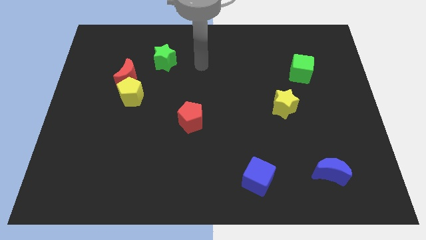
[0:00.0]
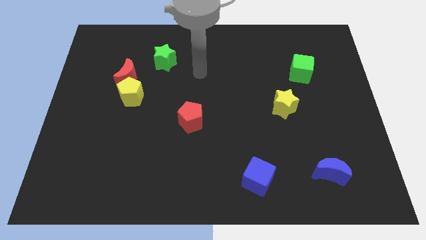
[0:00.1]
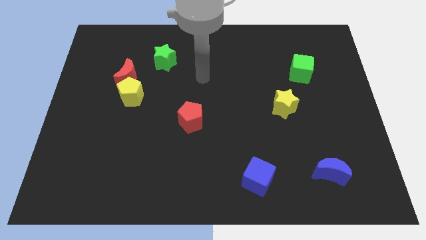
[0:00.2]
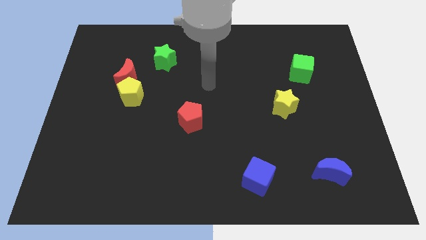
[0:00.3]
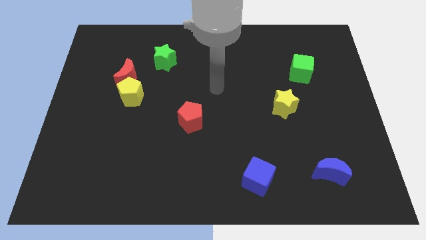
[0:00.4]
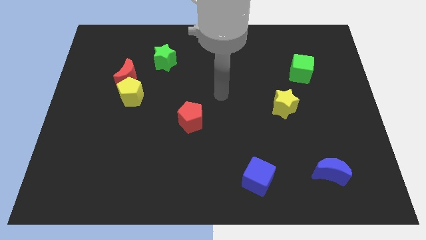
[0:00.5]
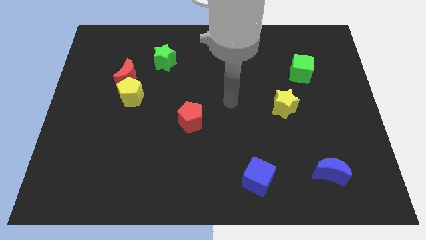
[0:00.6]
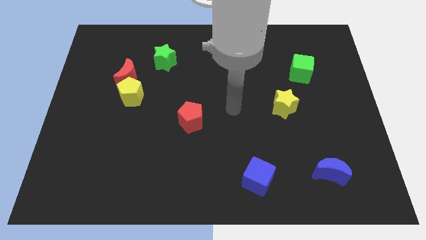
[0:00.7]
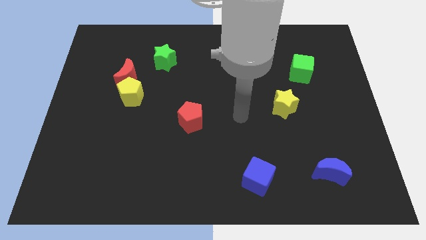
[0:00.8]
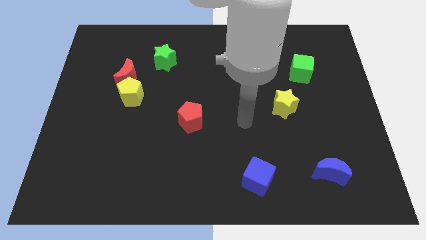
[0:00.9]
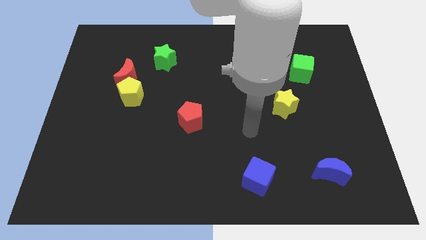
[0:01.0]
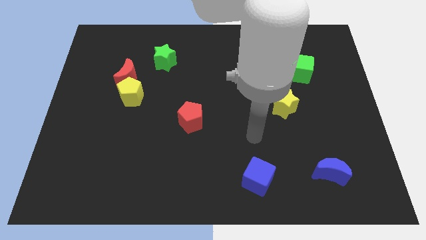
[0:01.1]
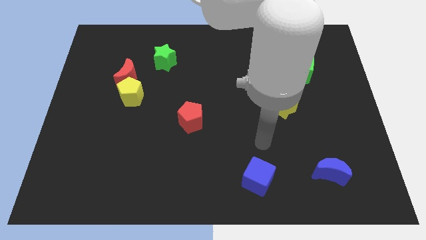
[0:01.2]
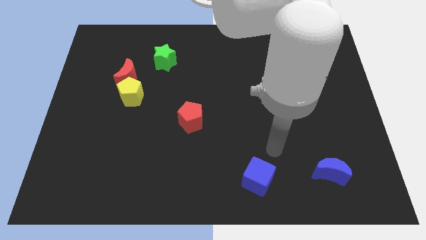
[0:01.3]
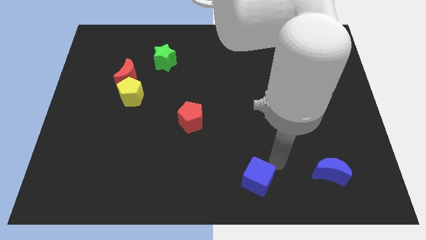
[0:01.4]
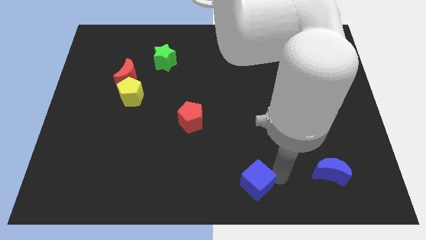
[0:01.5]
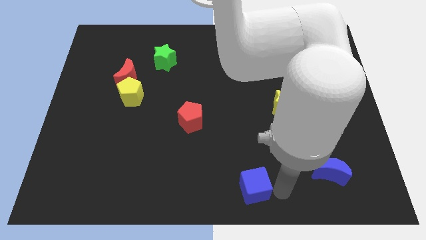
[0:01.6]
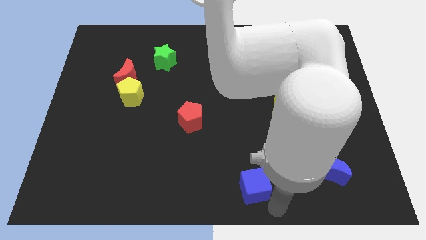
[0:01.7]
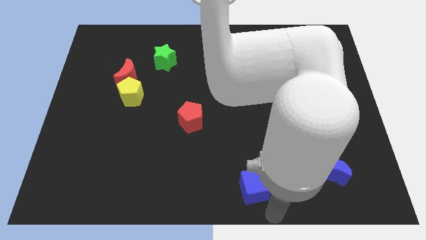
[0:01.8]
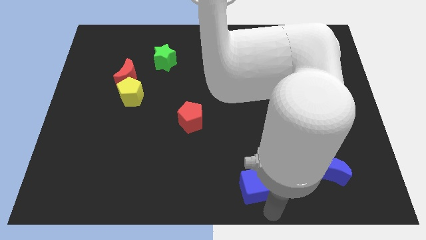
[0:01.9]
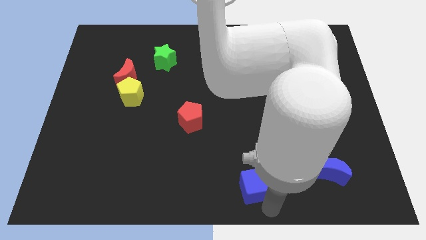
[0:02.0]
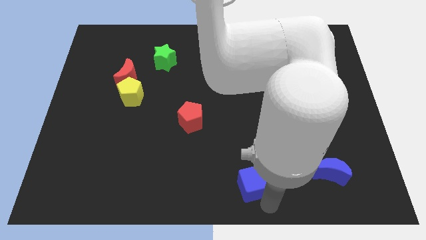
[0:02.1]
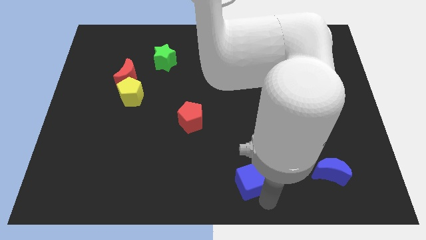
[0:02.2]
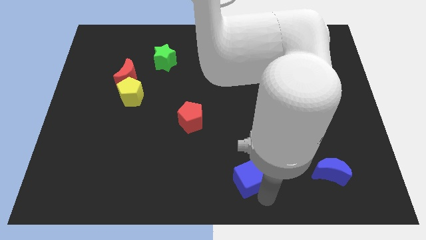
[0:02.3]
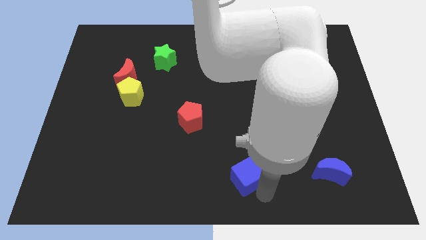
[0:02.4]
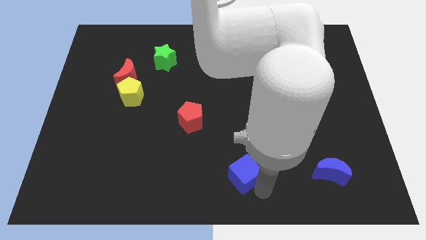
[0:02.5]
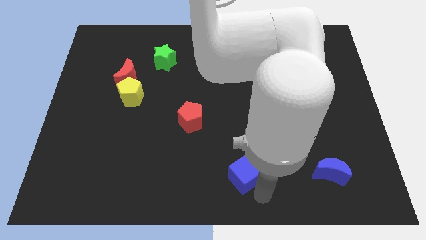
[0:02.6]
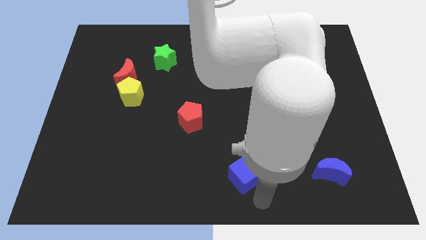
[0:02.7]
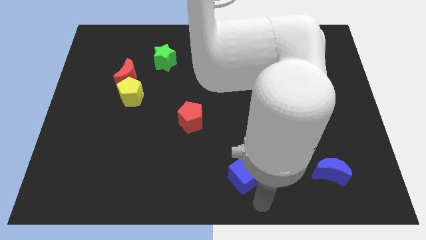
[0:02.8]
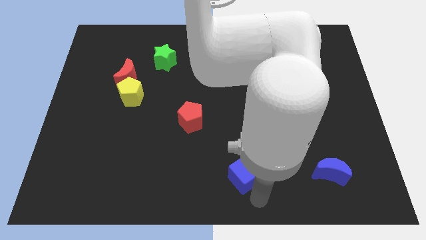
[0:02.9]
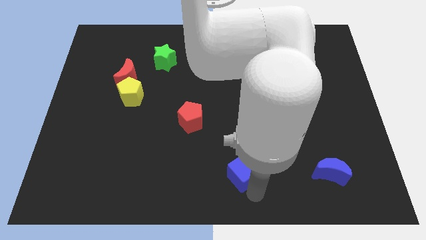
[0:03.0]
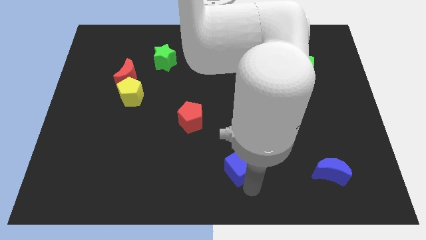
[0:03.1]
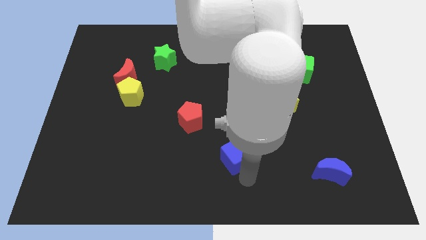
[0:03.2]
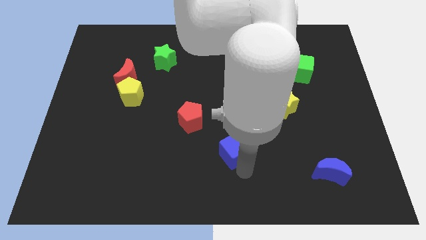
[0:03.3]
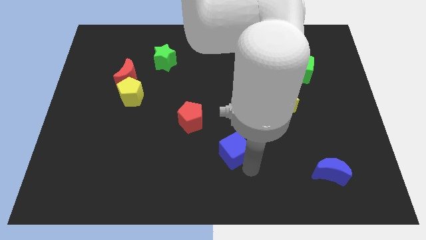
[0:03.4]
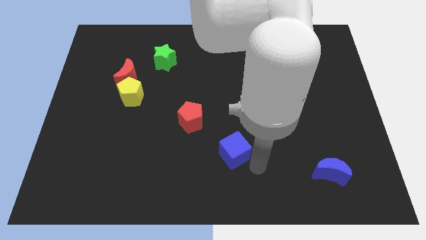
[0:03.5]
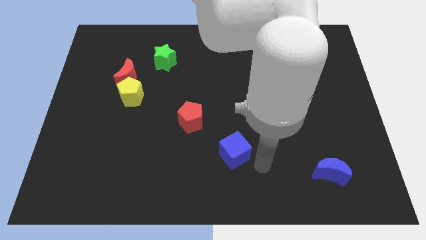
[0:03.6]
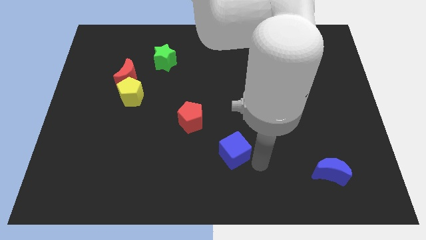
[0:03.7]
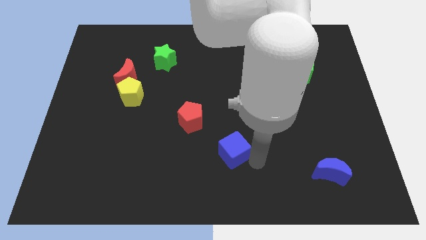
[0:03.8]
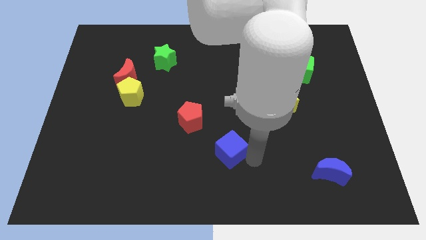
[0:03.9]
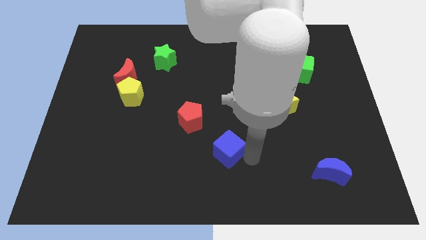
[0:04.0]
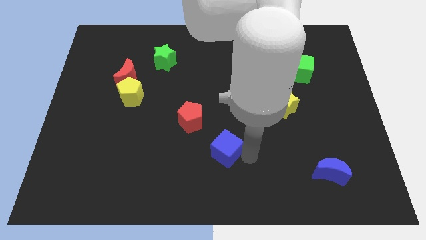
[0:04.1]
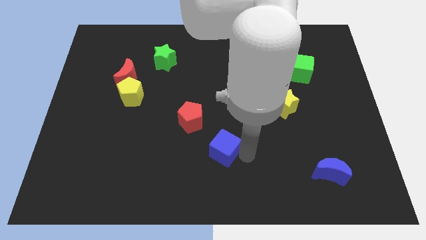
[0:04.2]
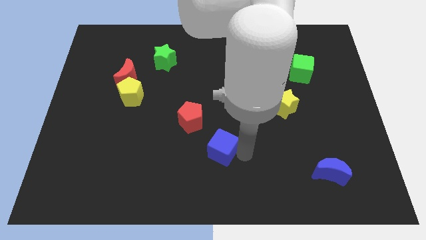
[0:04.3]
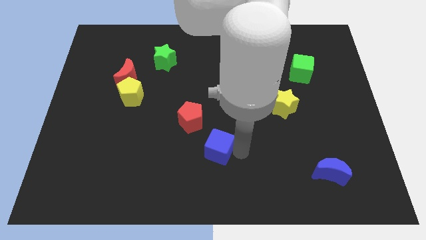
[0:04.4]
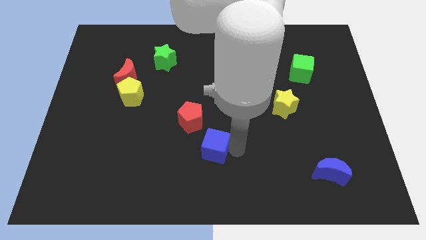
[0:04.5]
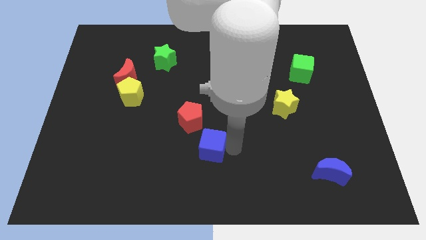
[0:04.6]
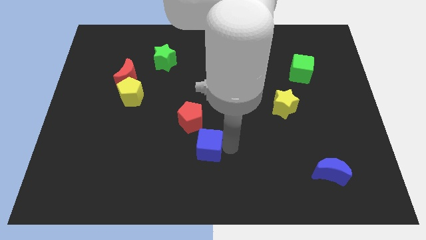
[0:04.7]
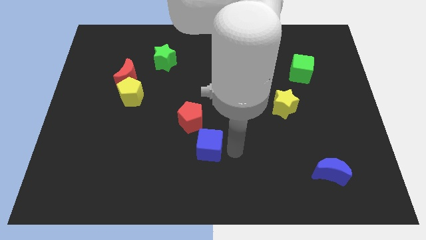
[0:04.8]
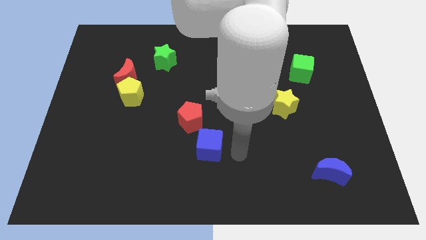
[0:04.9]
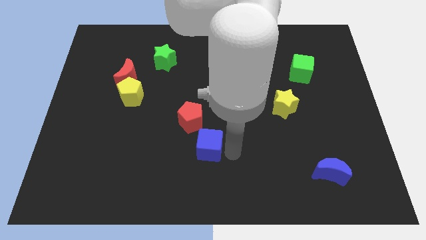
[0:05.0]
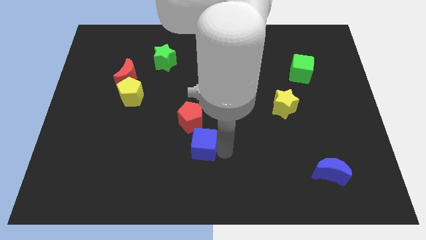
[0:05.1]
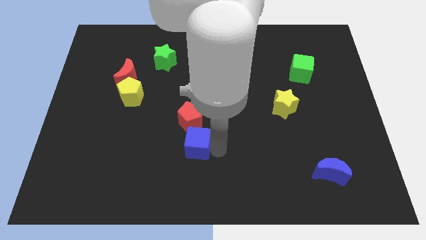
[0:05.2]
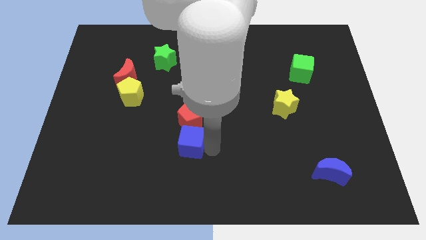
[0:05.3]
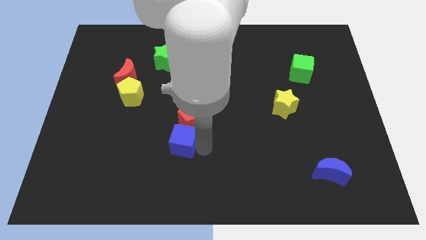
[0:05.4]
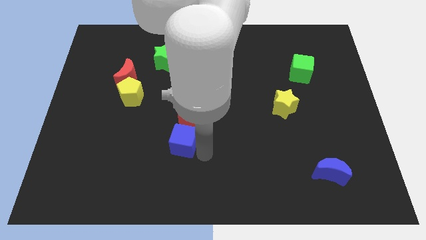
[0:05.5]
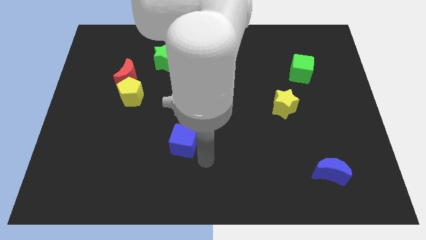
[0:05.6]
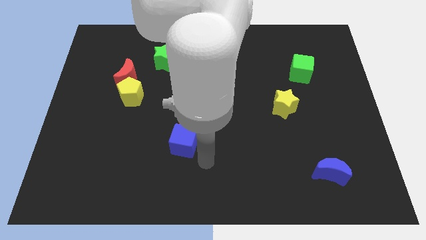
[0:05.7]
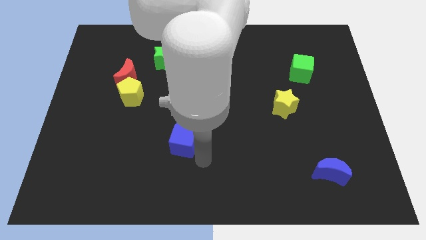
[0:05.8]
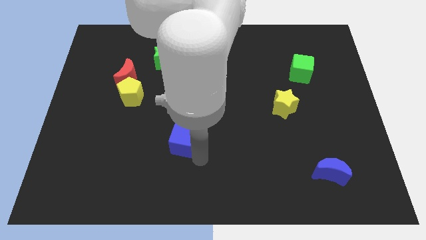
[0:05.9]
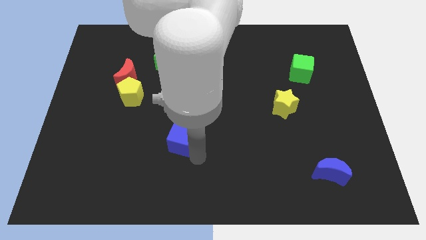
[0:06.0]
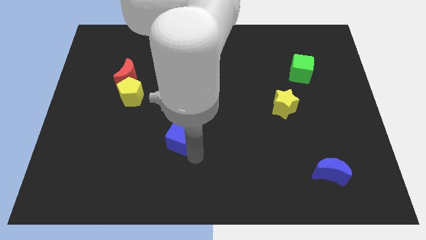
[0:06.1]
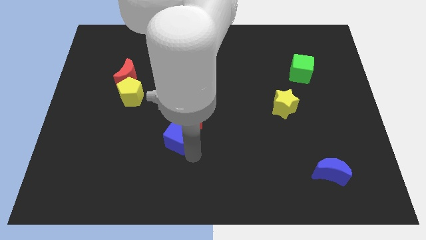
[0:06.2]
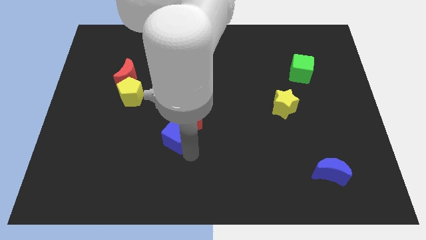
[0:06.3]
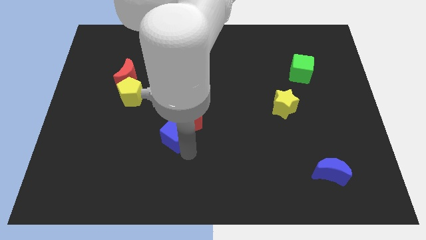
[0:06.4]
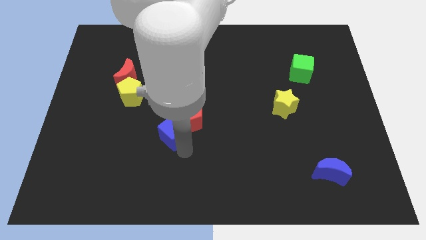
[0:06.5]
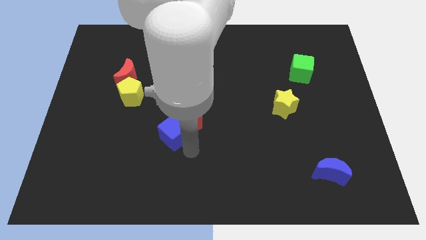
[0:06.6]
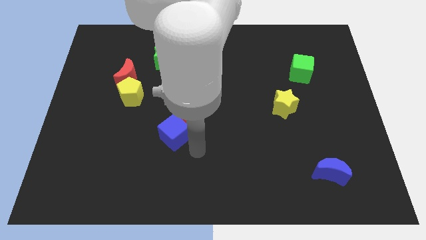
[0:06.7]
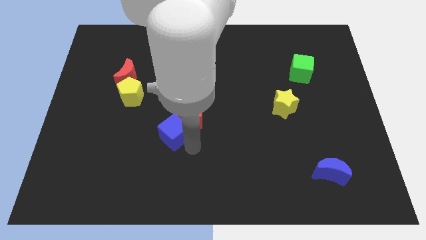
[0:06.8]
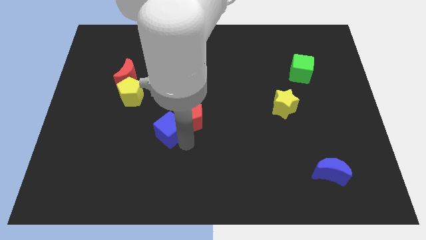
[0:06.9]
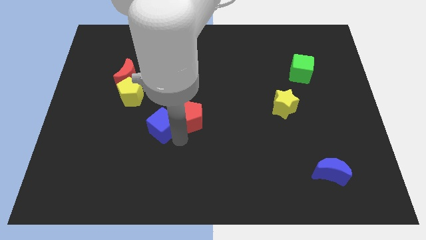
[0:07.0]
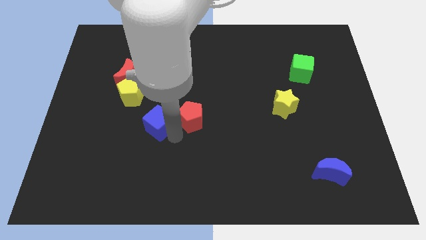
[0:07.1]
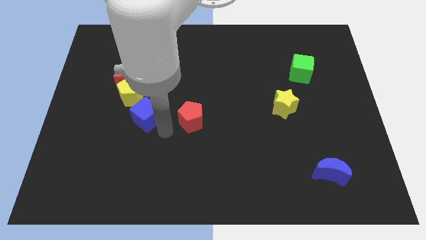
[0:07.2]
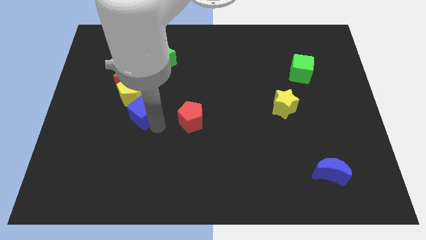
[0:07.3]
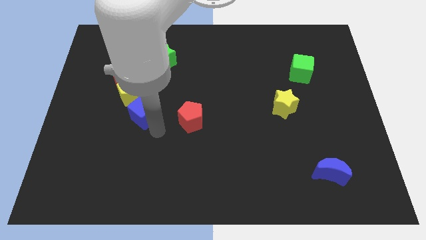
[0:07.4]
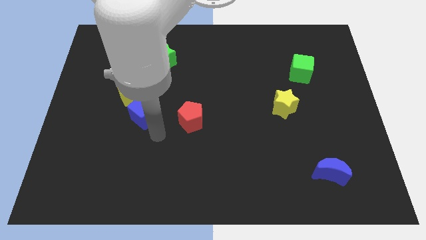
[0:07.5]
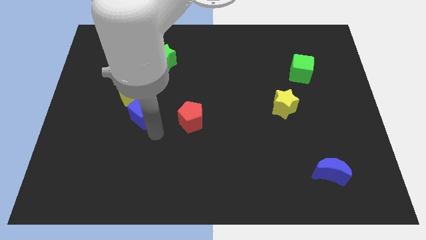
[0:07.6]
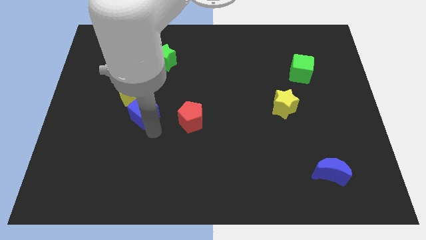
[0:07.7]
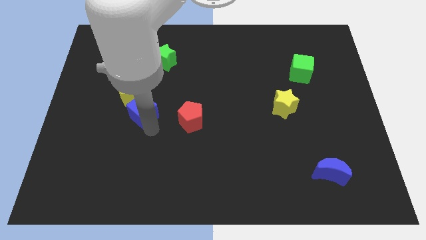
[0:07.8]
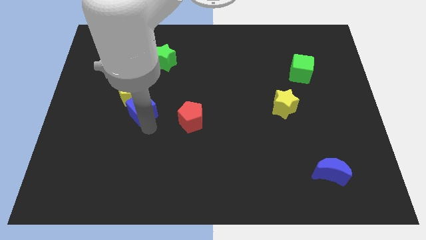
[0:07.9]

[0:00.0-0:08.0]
push the blue cube next to the yellow pentagon
